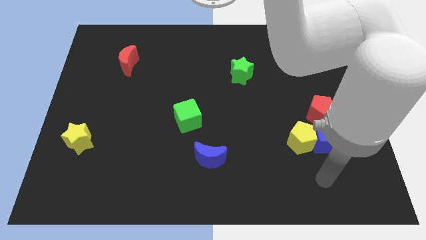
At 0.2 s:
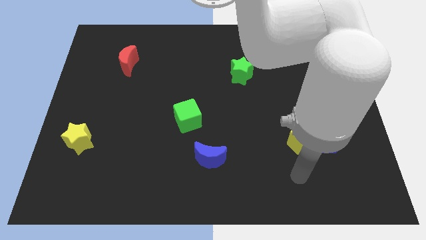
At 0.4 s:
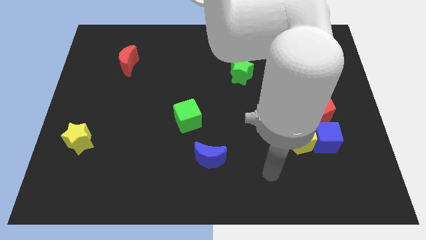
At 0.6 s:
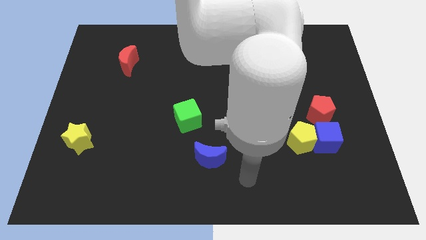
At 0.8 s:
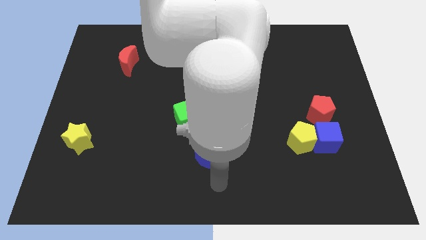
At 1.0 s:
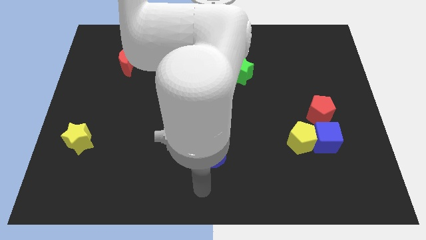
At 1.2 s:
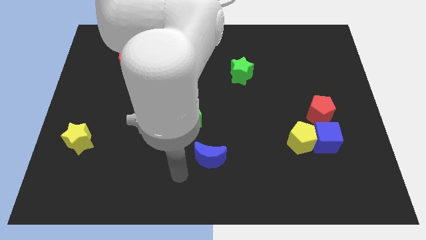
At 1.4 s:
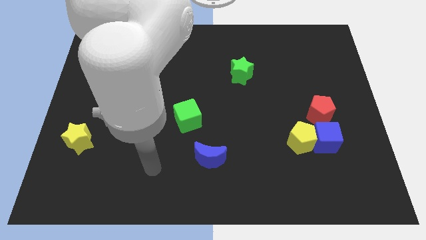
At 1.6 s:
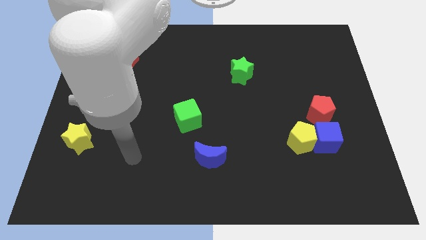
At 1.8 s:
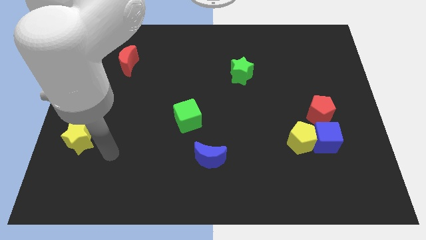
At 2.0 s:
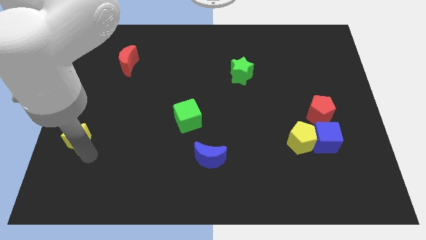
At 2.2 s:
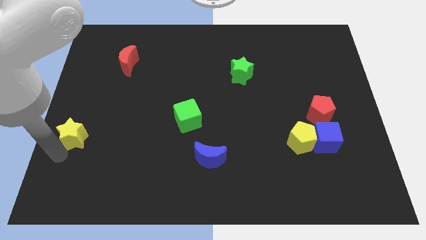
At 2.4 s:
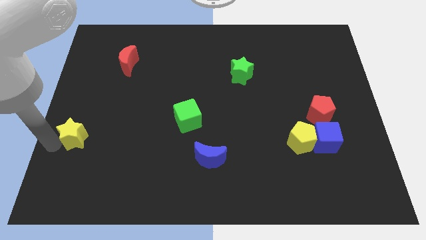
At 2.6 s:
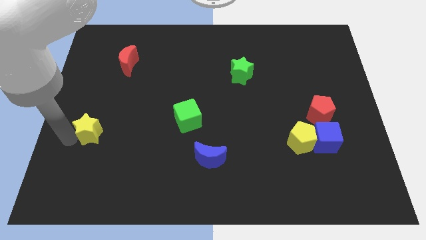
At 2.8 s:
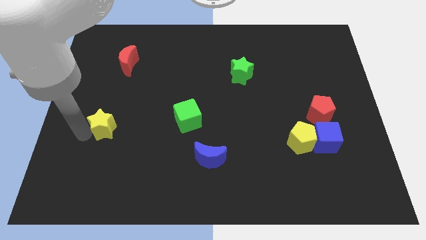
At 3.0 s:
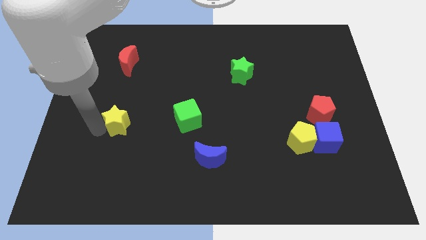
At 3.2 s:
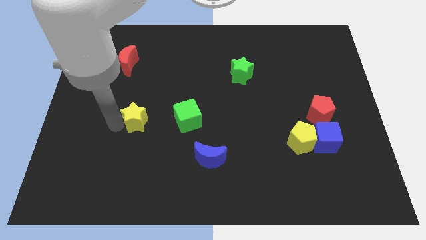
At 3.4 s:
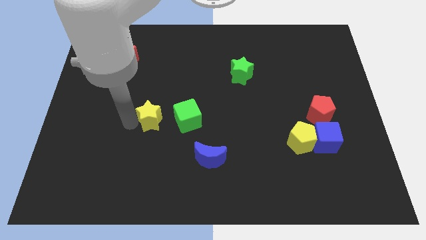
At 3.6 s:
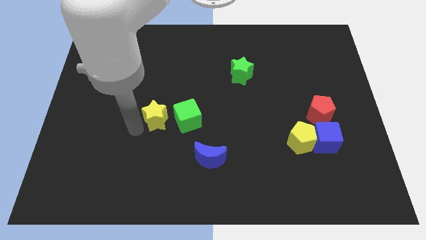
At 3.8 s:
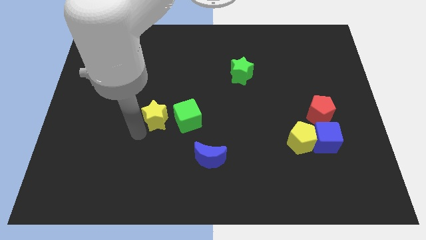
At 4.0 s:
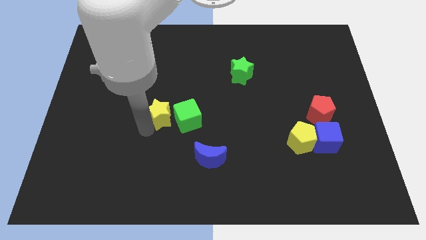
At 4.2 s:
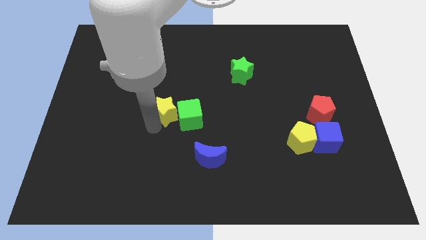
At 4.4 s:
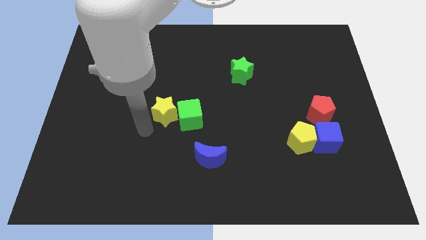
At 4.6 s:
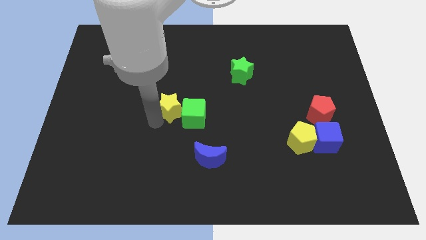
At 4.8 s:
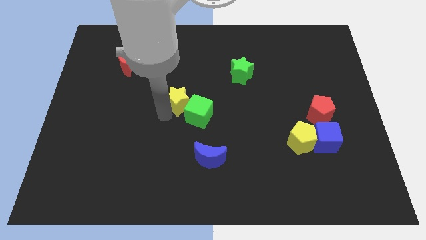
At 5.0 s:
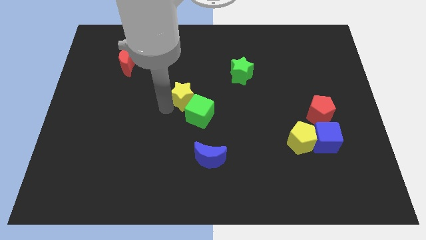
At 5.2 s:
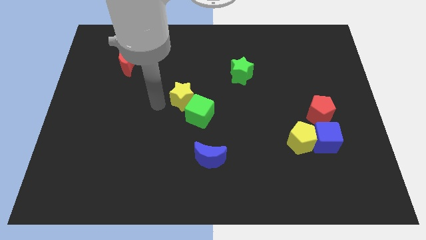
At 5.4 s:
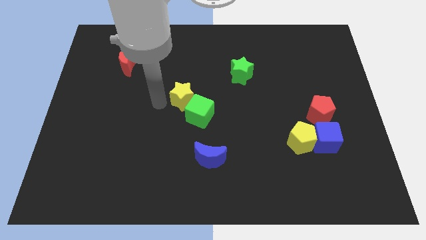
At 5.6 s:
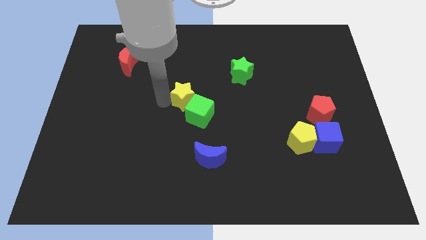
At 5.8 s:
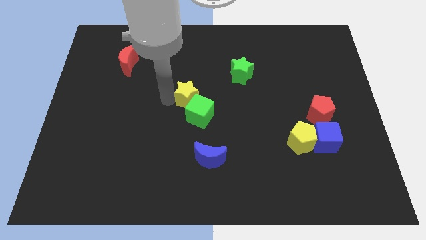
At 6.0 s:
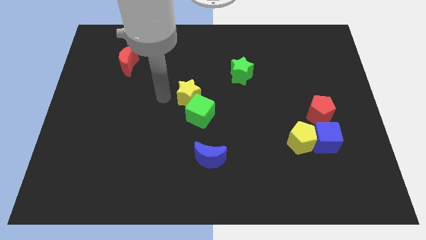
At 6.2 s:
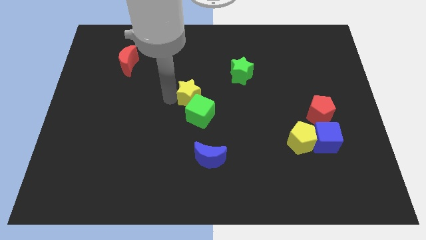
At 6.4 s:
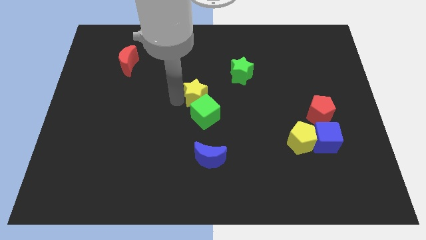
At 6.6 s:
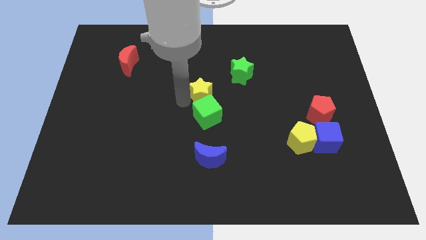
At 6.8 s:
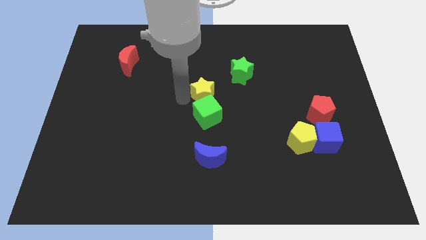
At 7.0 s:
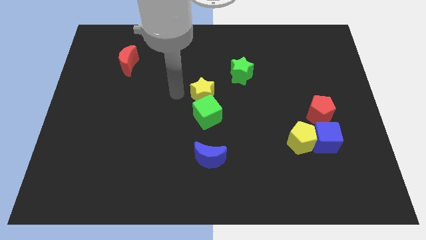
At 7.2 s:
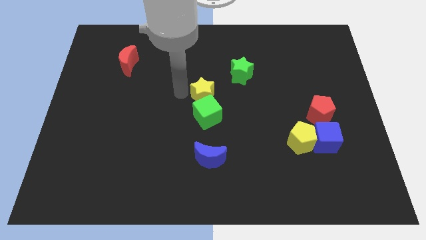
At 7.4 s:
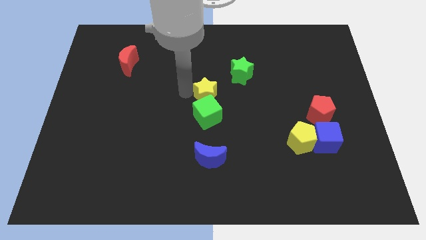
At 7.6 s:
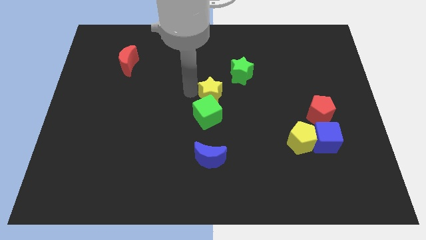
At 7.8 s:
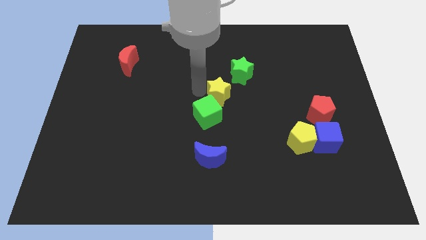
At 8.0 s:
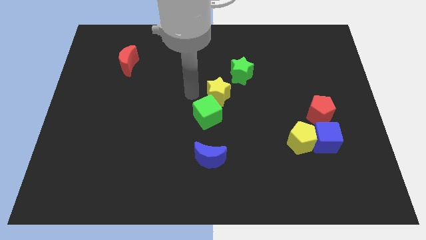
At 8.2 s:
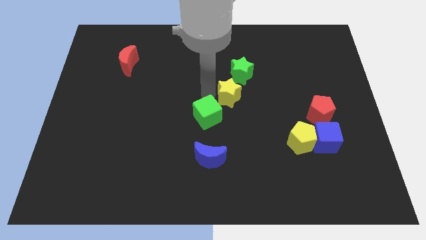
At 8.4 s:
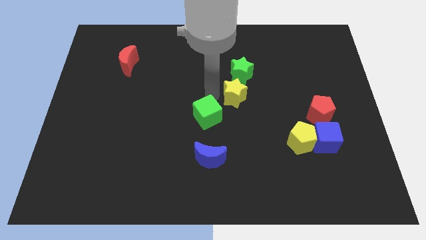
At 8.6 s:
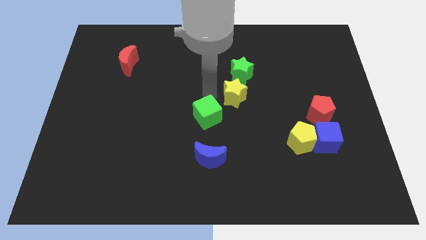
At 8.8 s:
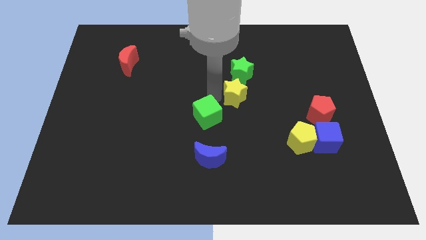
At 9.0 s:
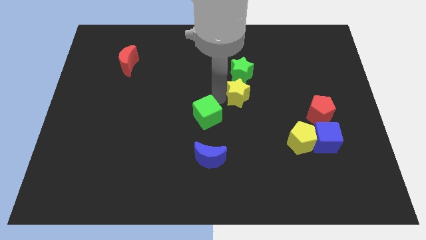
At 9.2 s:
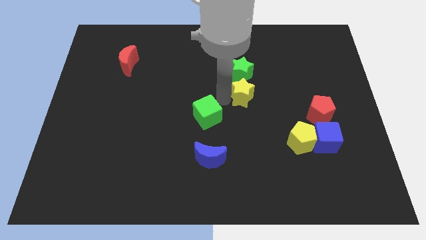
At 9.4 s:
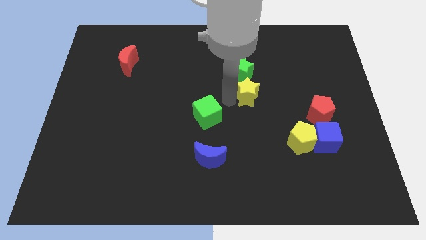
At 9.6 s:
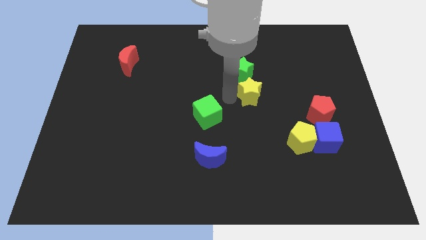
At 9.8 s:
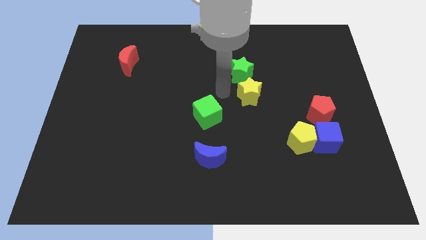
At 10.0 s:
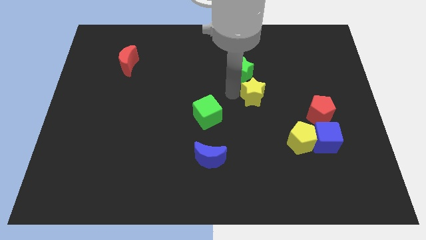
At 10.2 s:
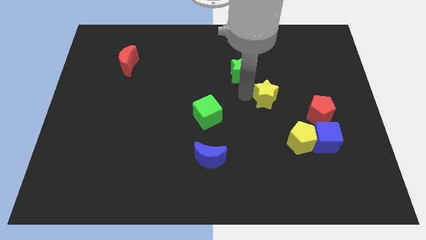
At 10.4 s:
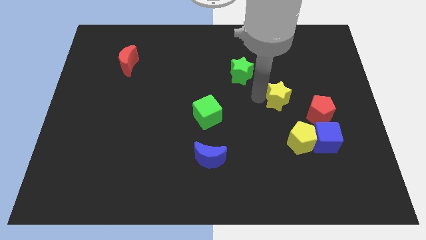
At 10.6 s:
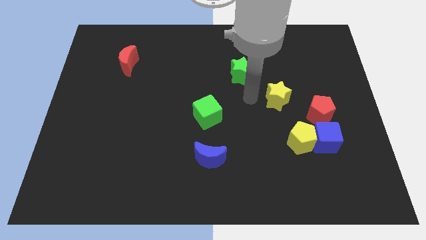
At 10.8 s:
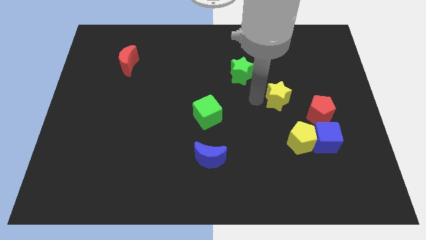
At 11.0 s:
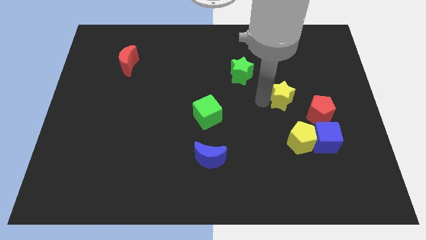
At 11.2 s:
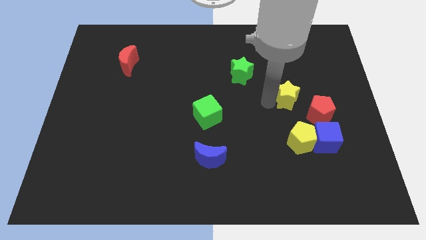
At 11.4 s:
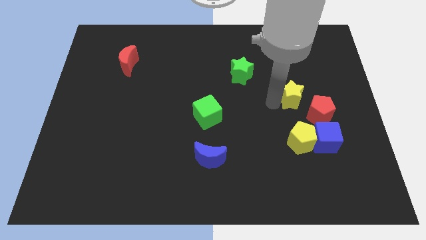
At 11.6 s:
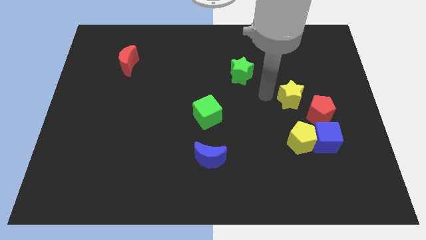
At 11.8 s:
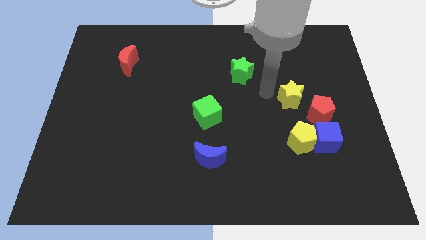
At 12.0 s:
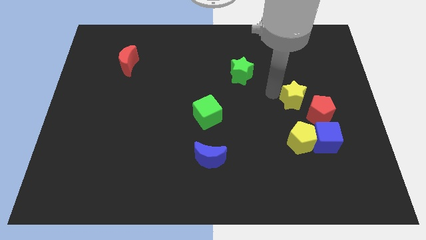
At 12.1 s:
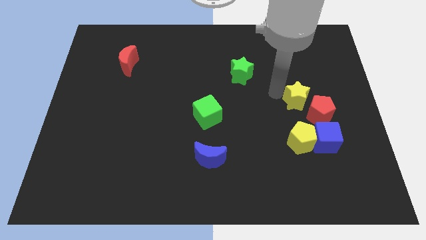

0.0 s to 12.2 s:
move the yellow star to the top of the blue cube

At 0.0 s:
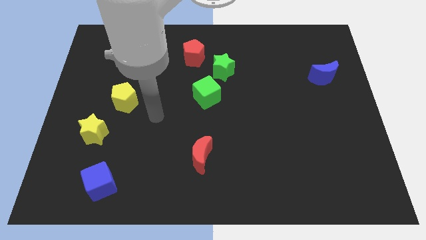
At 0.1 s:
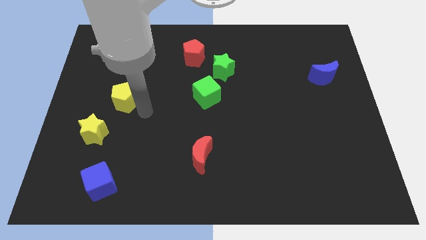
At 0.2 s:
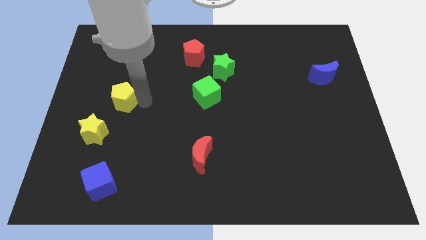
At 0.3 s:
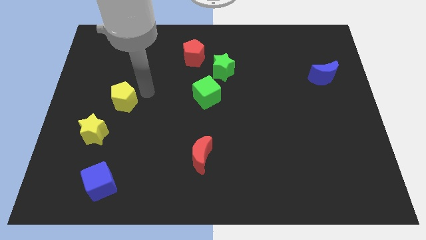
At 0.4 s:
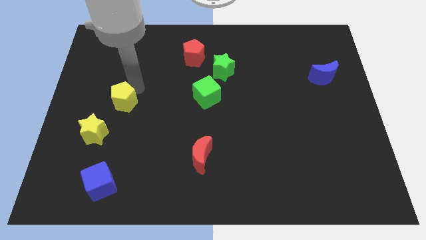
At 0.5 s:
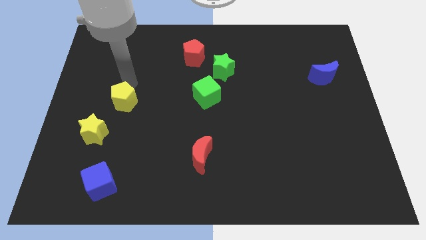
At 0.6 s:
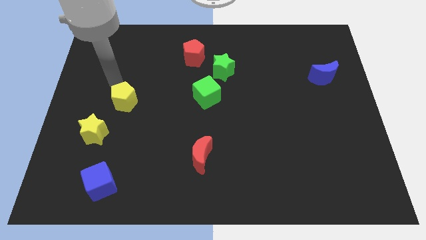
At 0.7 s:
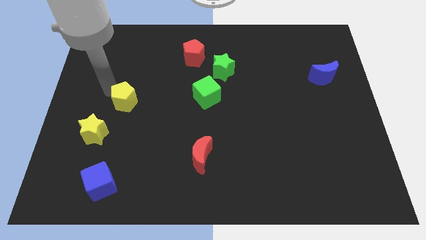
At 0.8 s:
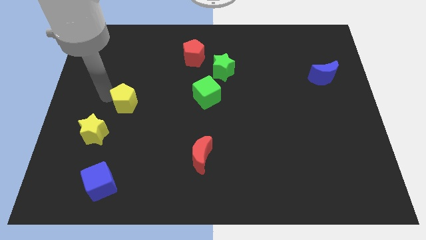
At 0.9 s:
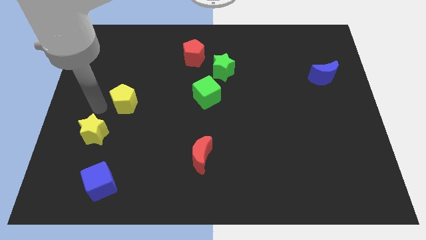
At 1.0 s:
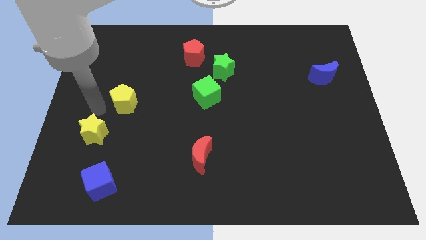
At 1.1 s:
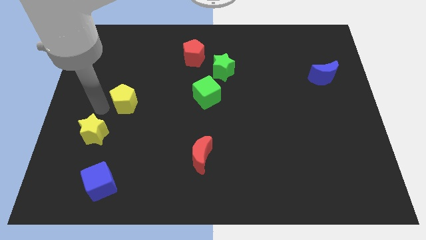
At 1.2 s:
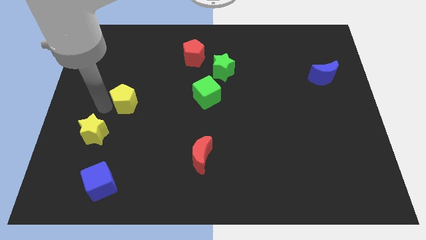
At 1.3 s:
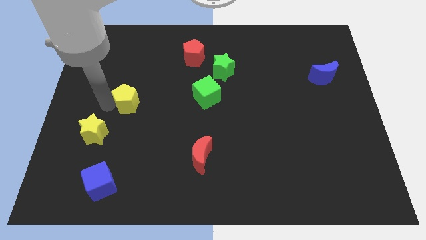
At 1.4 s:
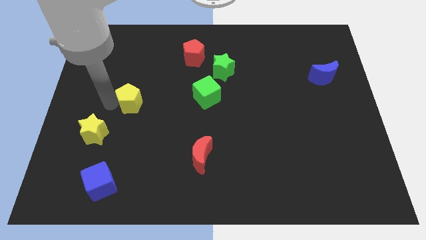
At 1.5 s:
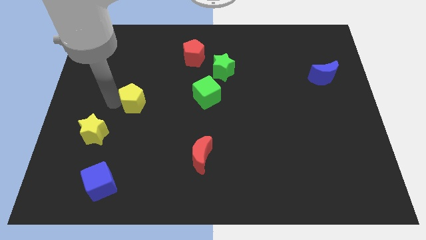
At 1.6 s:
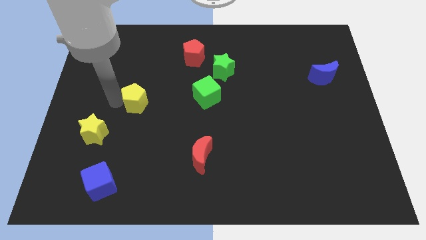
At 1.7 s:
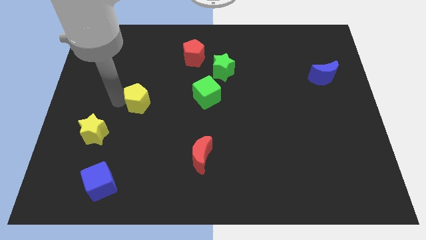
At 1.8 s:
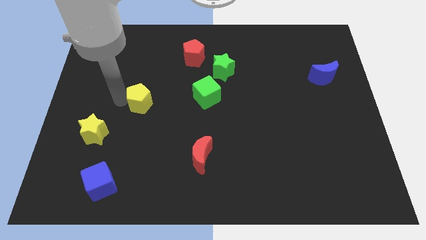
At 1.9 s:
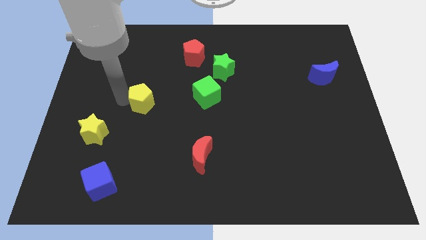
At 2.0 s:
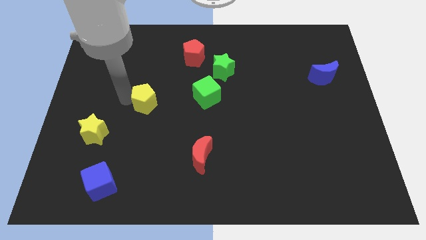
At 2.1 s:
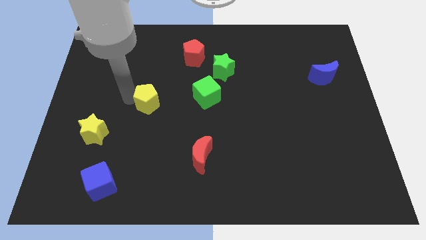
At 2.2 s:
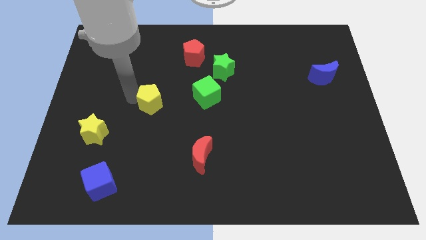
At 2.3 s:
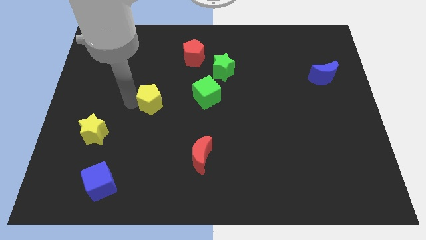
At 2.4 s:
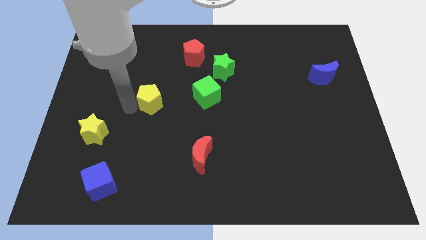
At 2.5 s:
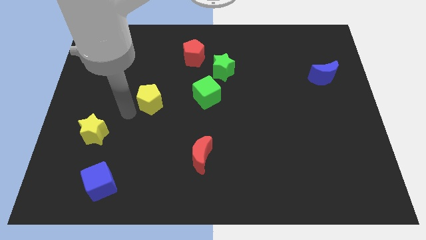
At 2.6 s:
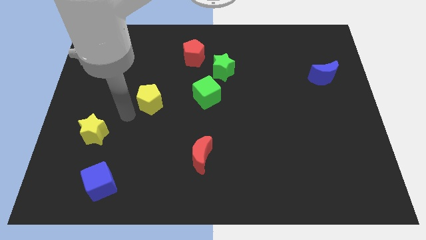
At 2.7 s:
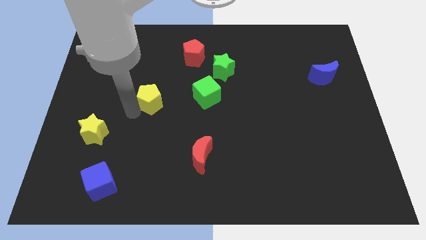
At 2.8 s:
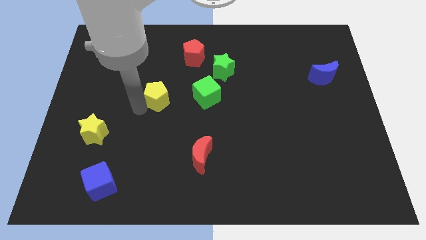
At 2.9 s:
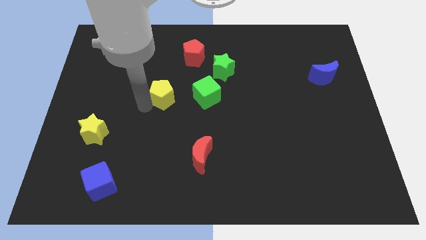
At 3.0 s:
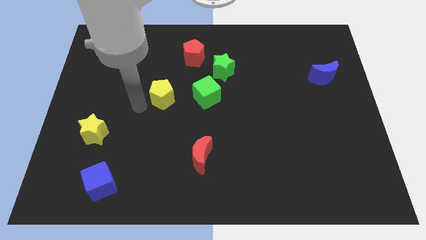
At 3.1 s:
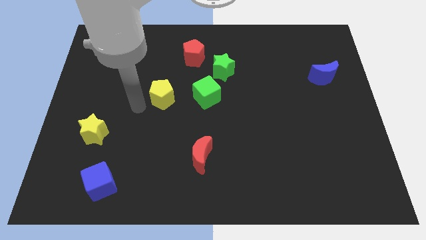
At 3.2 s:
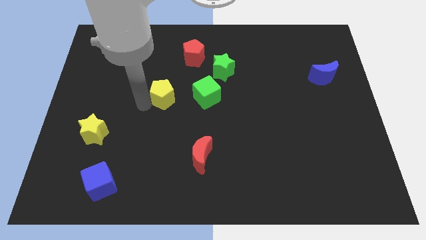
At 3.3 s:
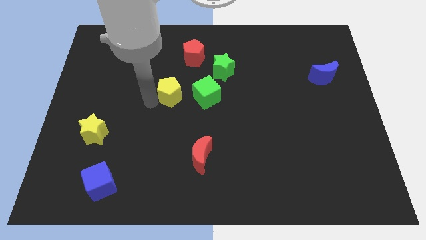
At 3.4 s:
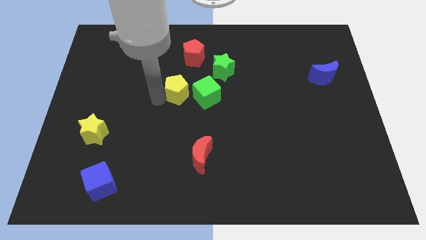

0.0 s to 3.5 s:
put the yellow pentagon to the bottom of the red pentagon
